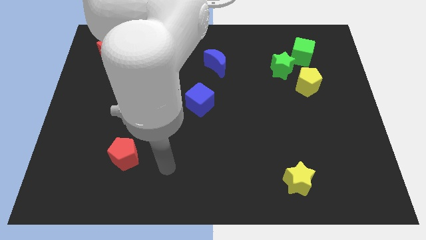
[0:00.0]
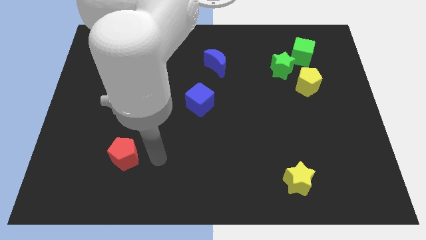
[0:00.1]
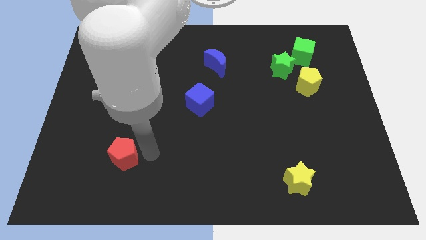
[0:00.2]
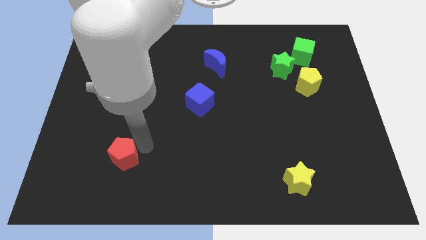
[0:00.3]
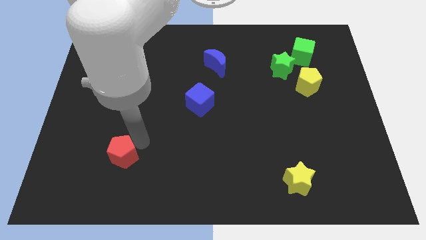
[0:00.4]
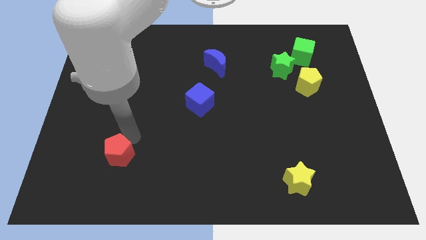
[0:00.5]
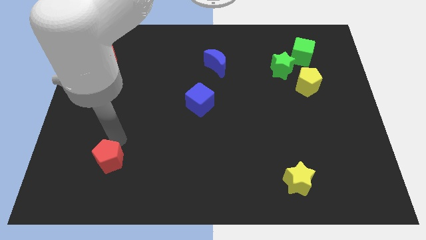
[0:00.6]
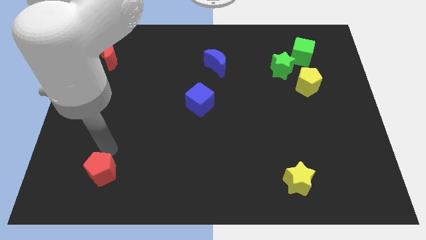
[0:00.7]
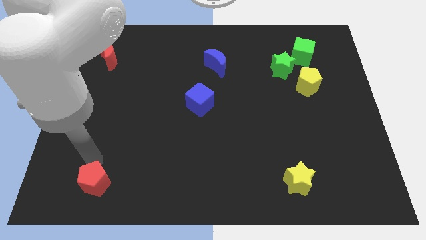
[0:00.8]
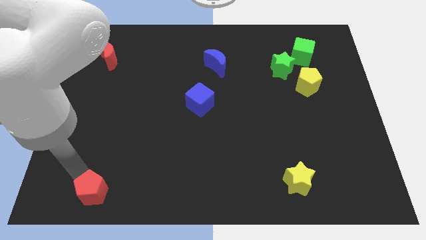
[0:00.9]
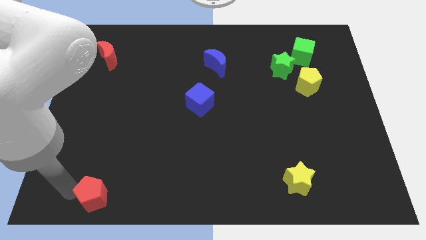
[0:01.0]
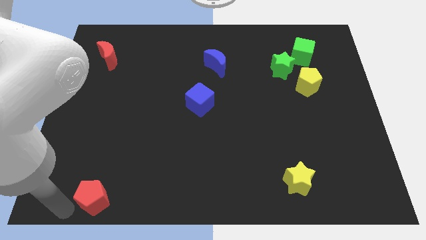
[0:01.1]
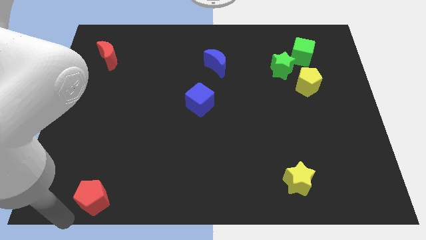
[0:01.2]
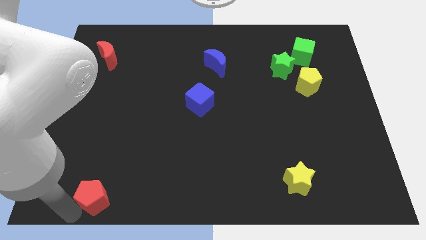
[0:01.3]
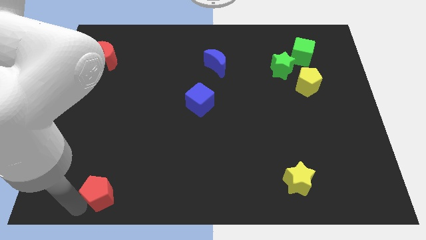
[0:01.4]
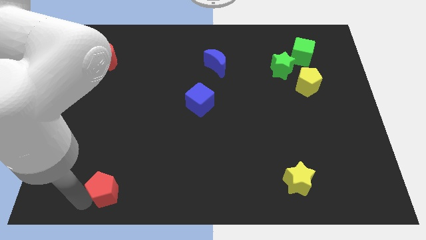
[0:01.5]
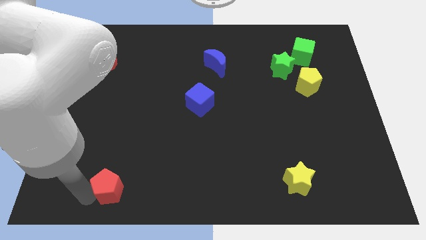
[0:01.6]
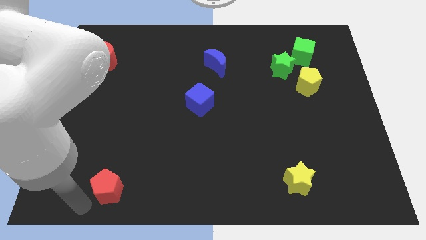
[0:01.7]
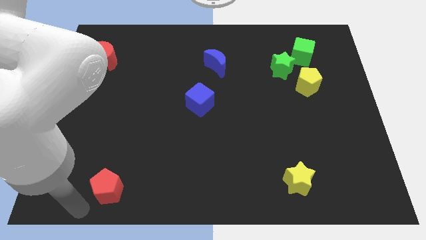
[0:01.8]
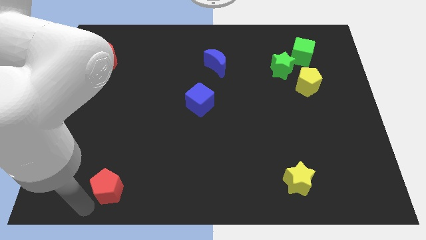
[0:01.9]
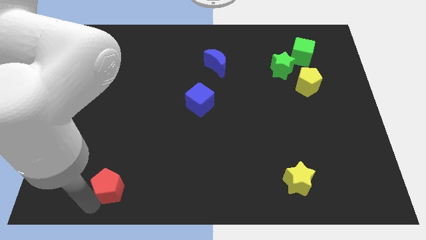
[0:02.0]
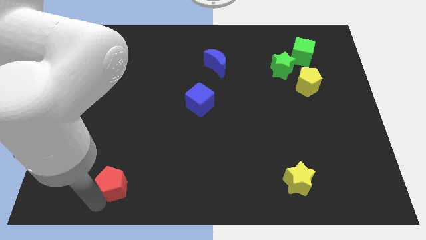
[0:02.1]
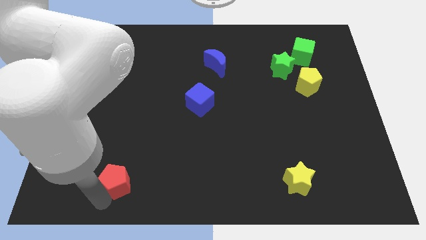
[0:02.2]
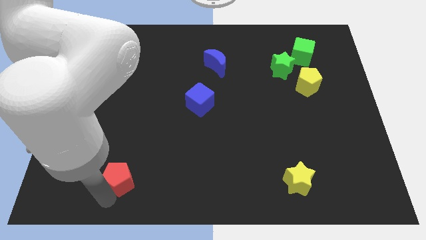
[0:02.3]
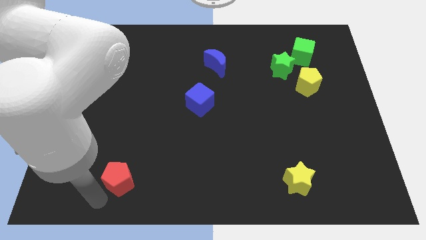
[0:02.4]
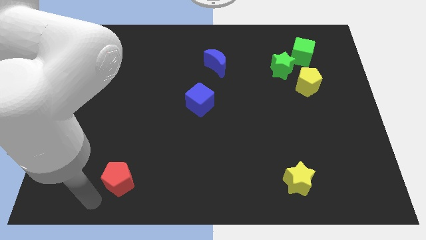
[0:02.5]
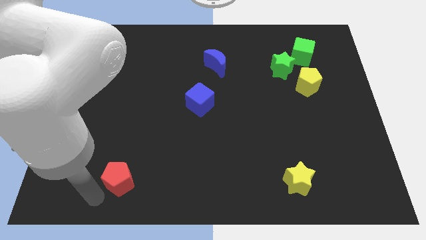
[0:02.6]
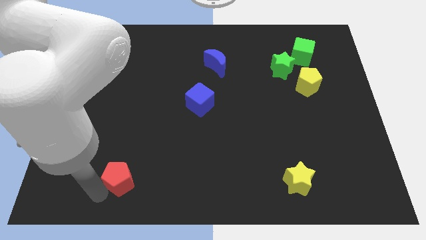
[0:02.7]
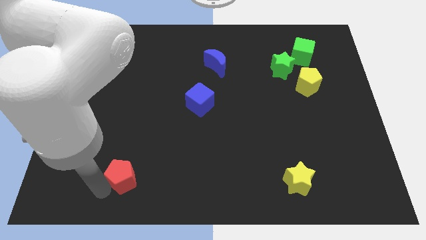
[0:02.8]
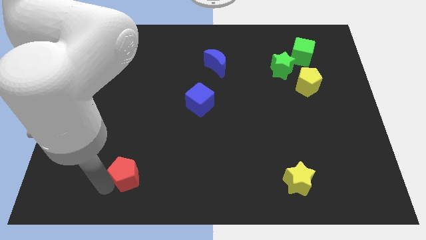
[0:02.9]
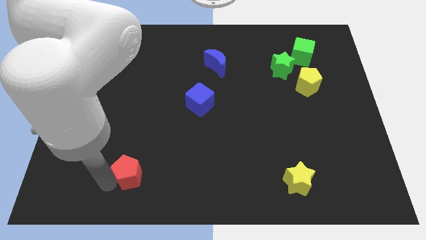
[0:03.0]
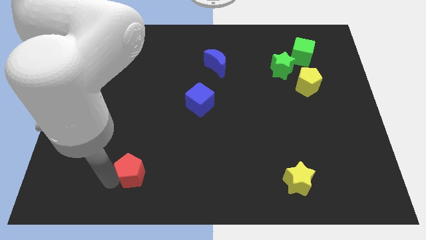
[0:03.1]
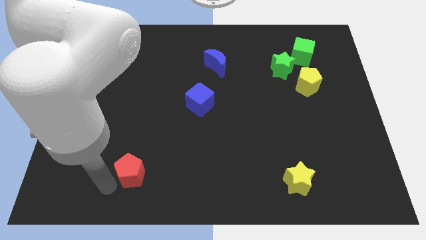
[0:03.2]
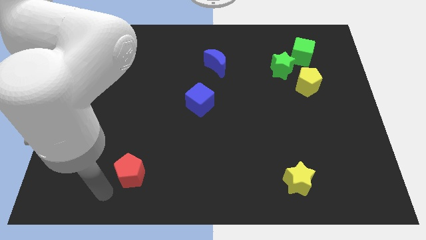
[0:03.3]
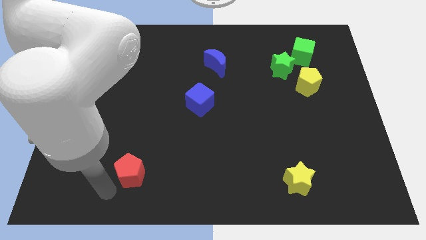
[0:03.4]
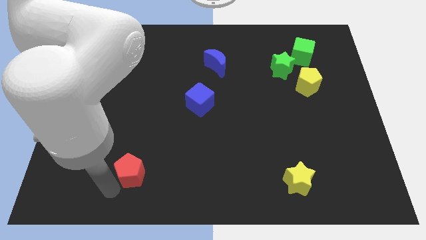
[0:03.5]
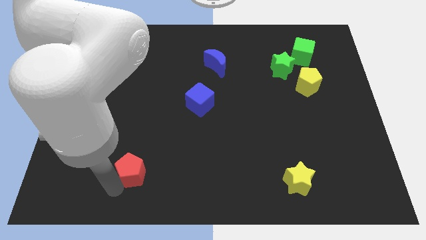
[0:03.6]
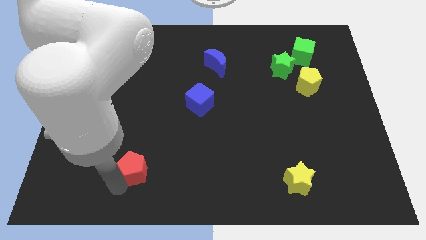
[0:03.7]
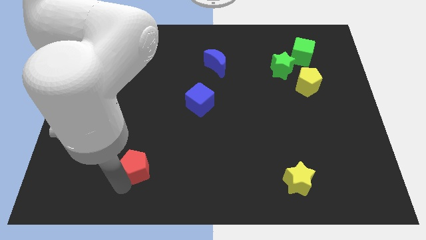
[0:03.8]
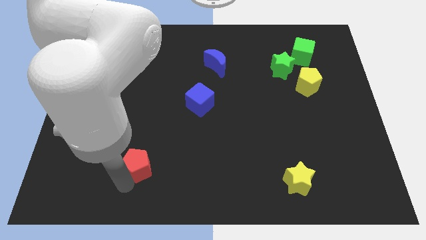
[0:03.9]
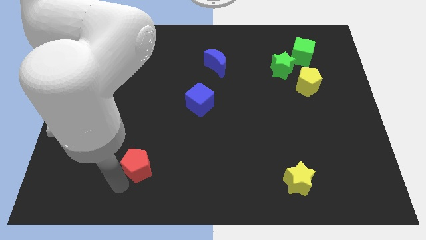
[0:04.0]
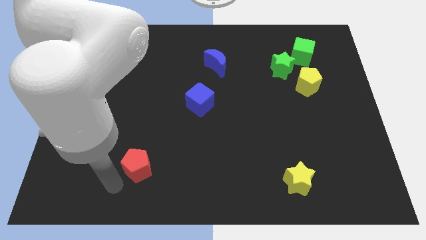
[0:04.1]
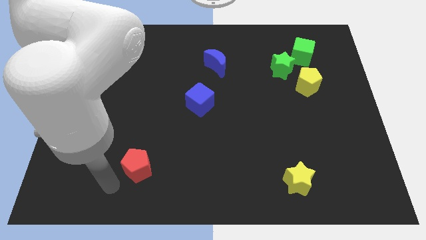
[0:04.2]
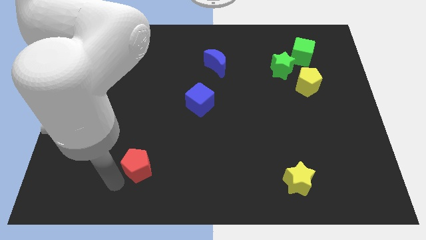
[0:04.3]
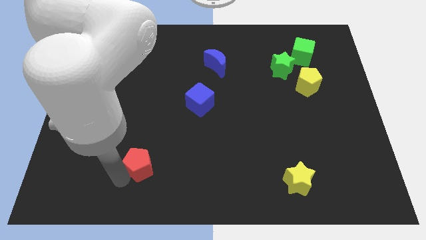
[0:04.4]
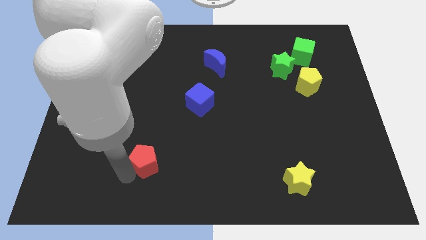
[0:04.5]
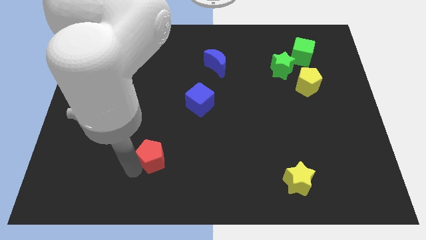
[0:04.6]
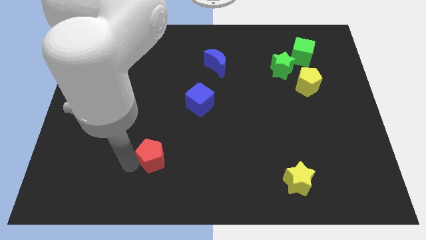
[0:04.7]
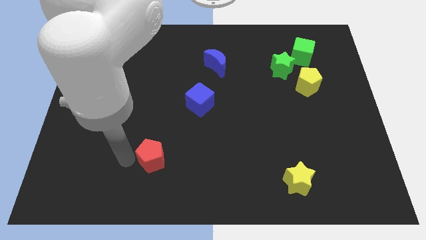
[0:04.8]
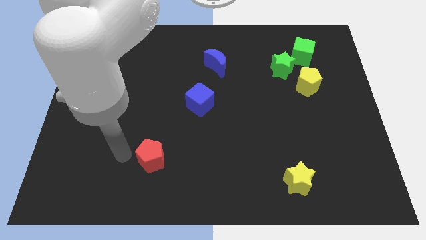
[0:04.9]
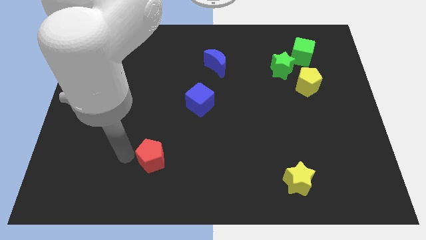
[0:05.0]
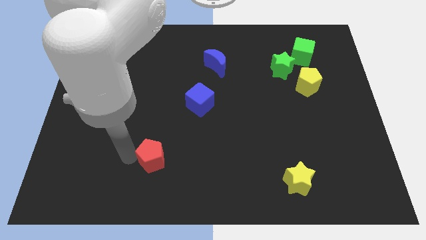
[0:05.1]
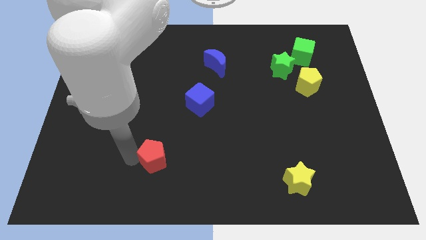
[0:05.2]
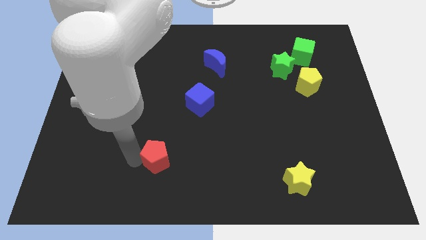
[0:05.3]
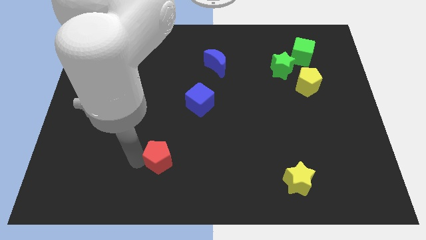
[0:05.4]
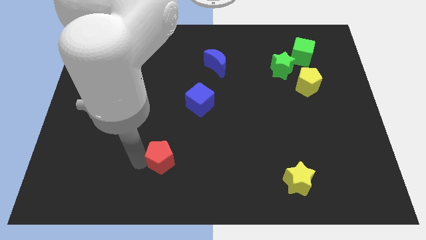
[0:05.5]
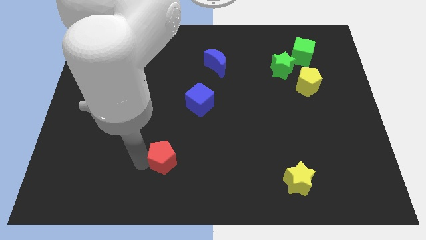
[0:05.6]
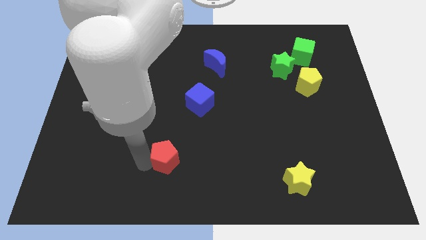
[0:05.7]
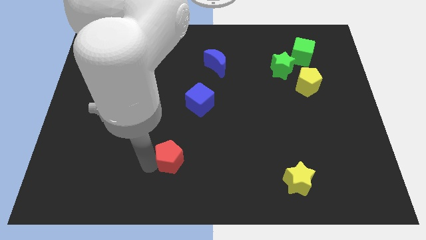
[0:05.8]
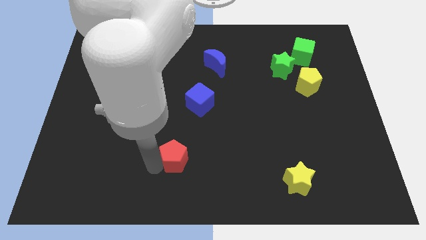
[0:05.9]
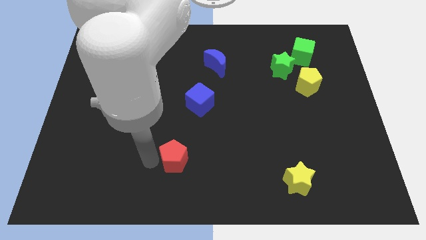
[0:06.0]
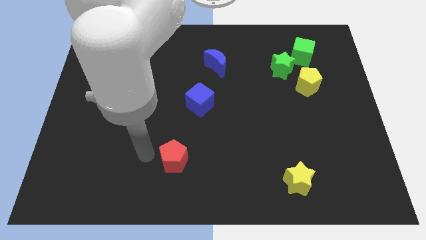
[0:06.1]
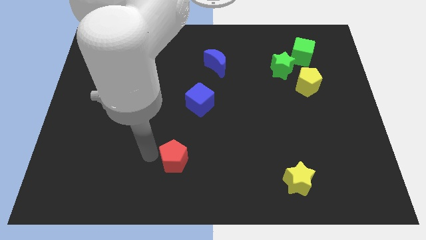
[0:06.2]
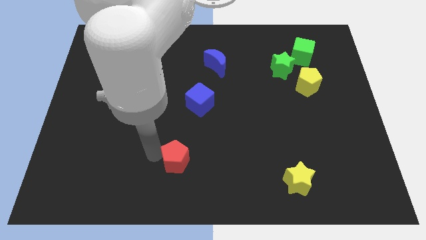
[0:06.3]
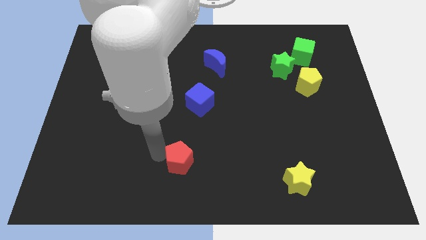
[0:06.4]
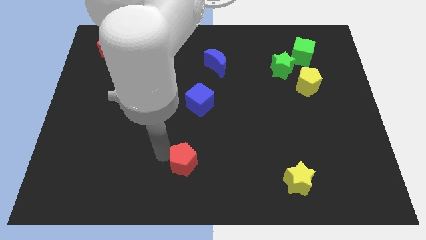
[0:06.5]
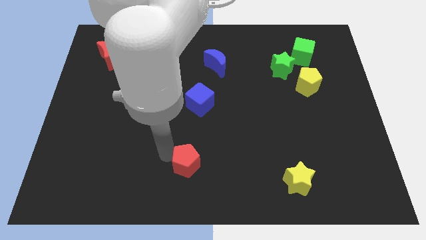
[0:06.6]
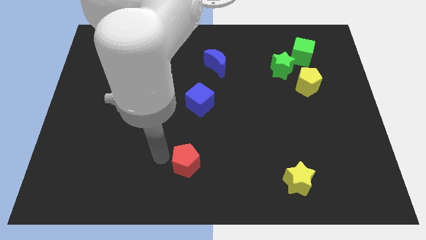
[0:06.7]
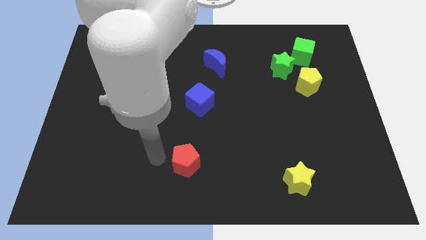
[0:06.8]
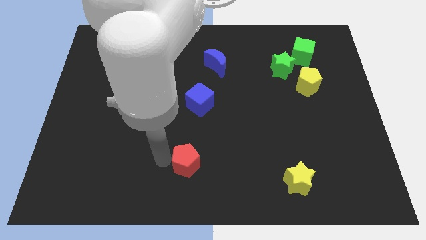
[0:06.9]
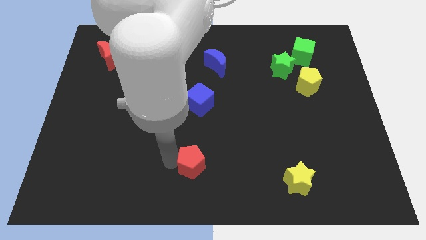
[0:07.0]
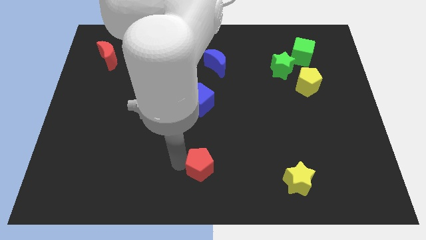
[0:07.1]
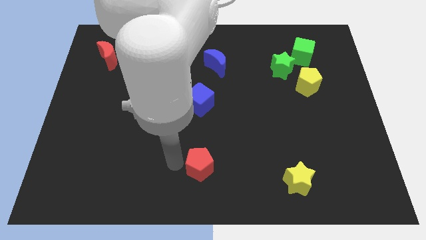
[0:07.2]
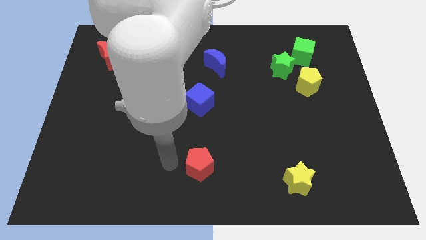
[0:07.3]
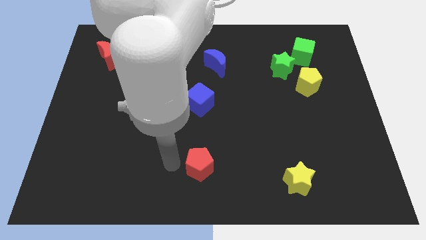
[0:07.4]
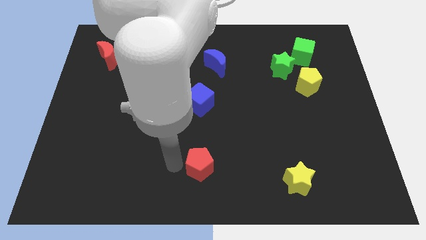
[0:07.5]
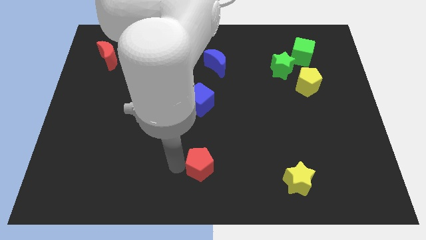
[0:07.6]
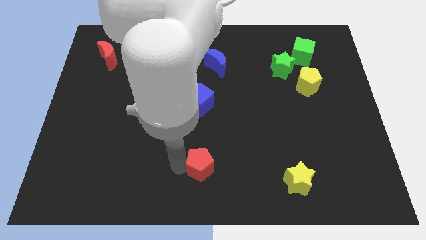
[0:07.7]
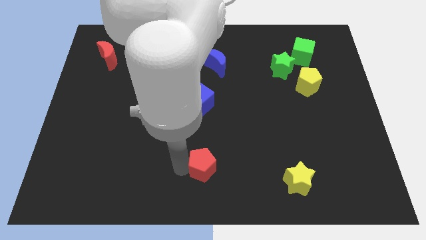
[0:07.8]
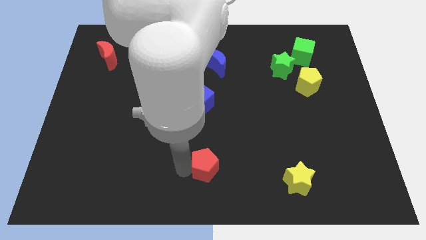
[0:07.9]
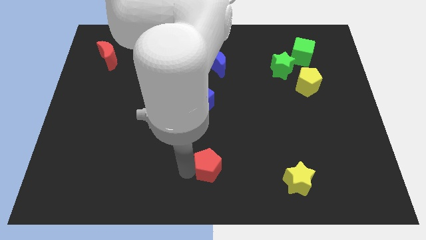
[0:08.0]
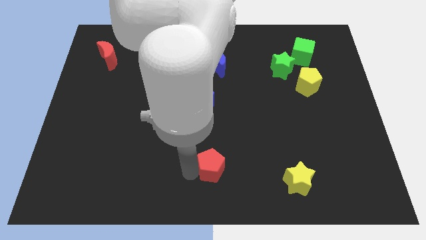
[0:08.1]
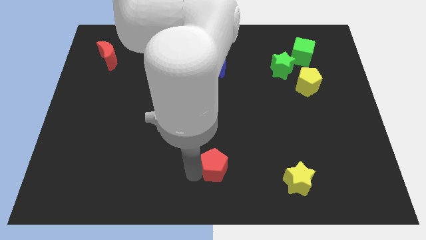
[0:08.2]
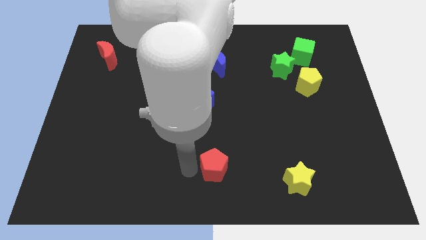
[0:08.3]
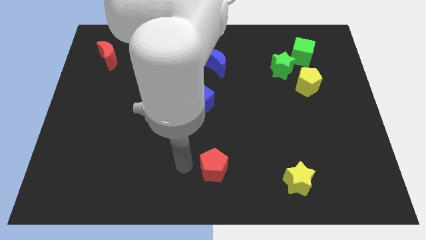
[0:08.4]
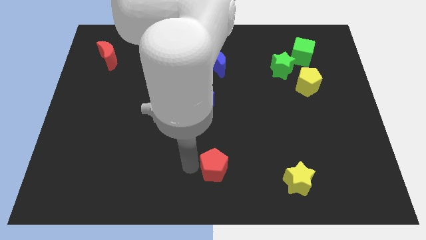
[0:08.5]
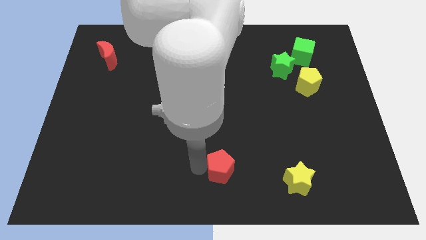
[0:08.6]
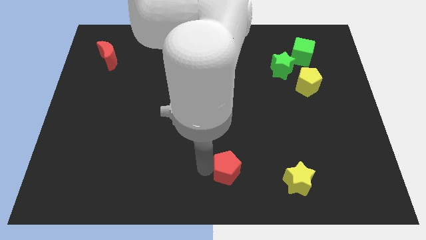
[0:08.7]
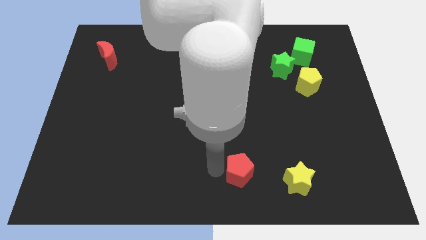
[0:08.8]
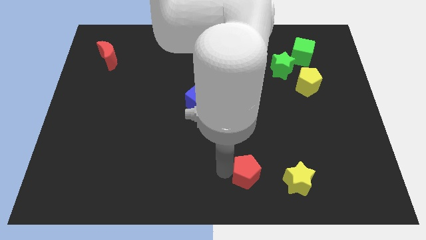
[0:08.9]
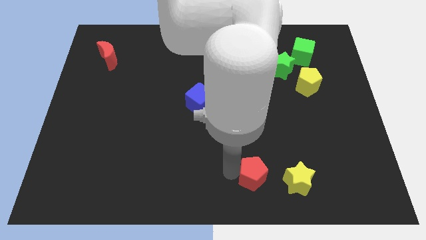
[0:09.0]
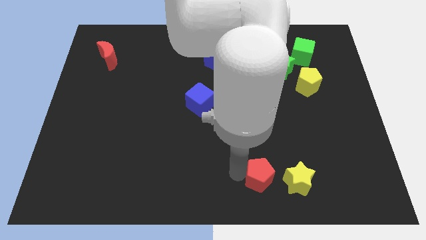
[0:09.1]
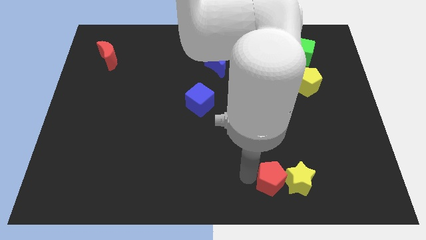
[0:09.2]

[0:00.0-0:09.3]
slide the red pentagon to the yellow star
